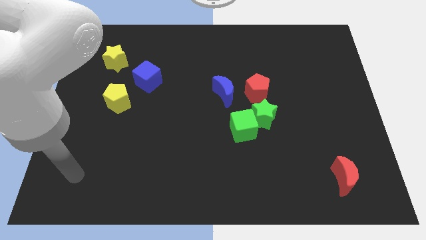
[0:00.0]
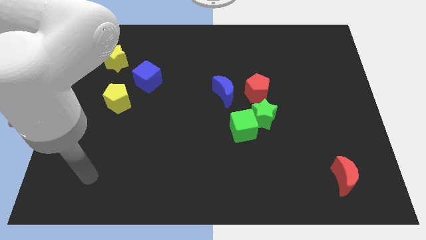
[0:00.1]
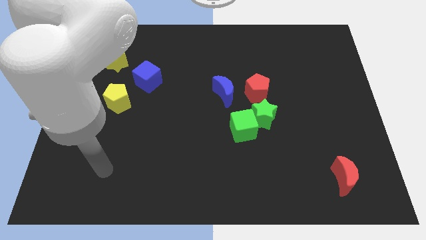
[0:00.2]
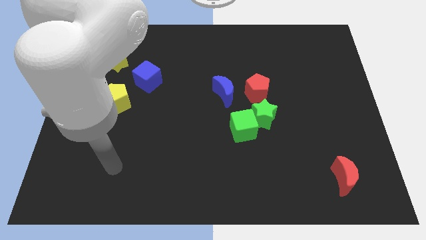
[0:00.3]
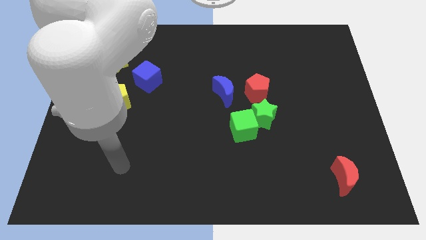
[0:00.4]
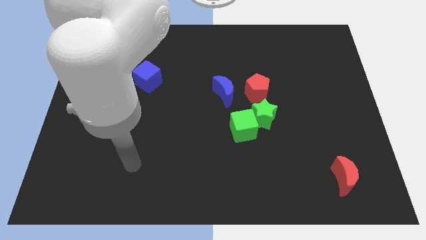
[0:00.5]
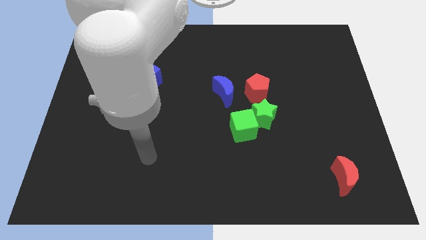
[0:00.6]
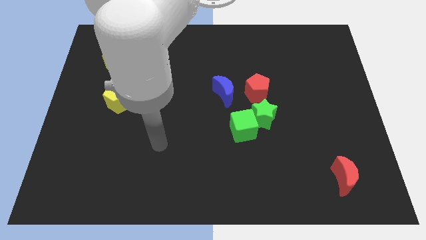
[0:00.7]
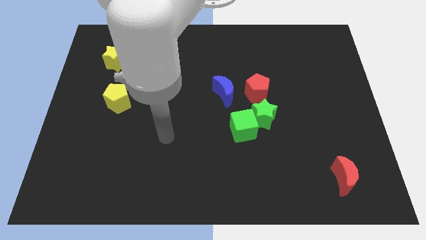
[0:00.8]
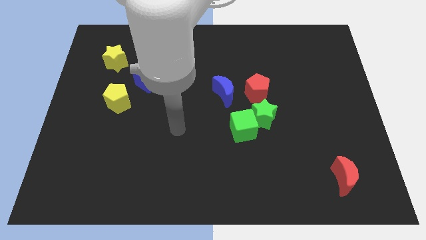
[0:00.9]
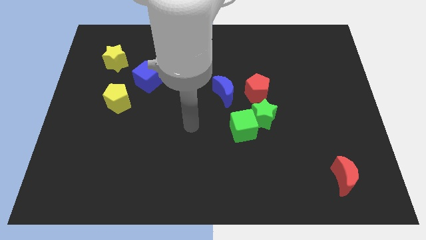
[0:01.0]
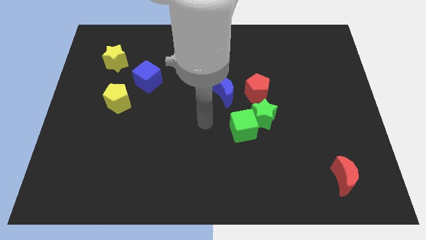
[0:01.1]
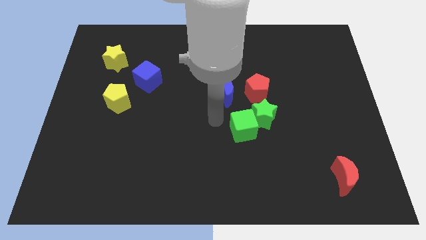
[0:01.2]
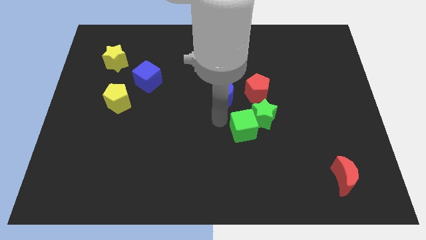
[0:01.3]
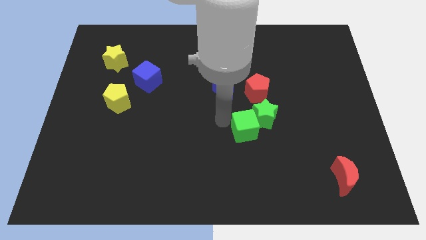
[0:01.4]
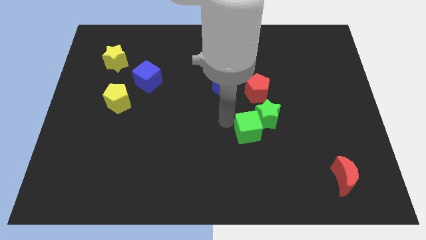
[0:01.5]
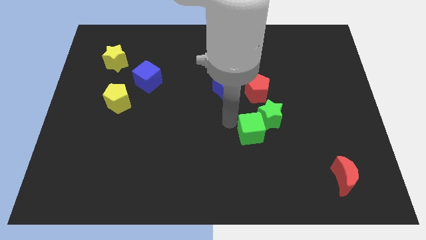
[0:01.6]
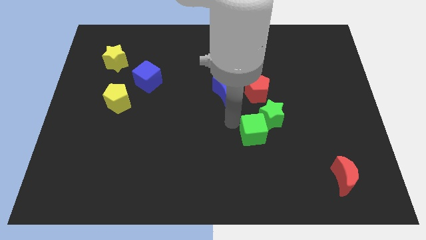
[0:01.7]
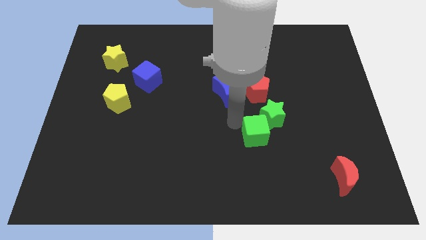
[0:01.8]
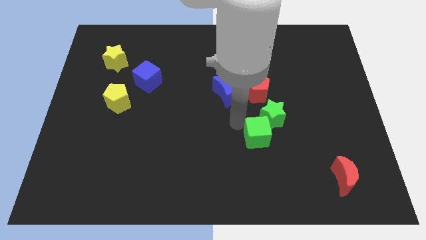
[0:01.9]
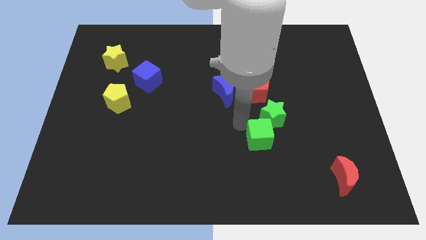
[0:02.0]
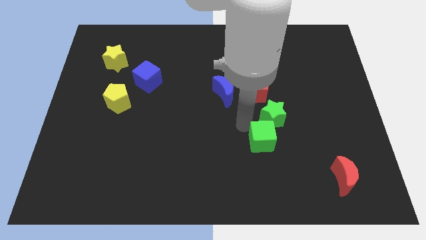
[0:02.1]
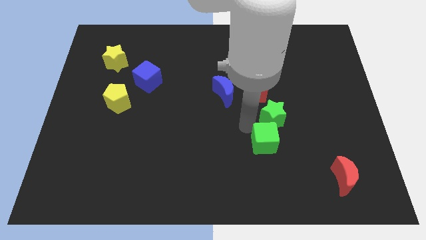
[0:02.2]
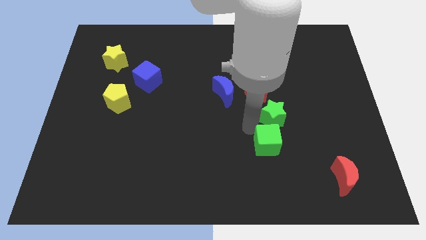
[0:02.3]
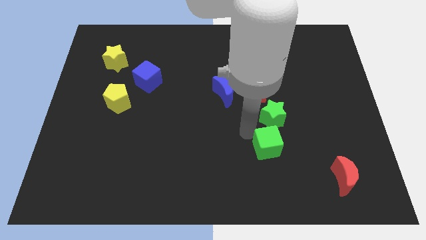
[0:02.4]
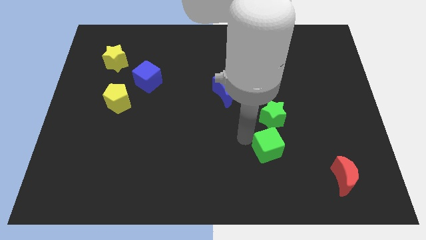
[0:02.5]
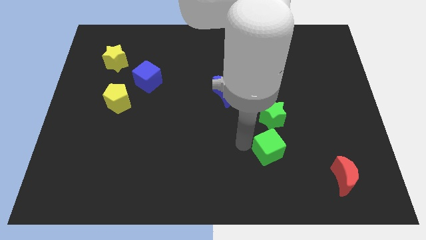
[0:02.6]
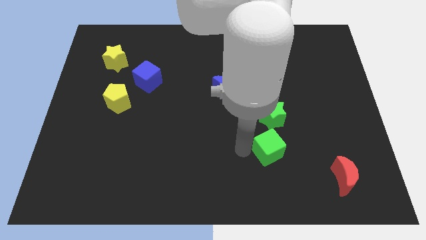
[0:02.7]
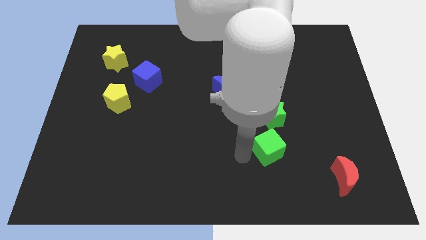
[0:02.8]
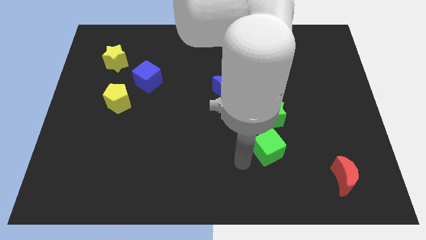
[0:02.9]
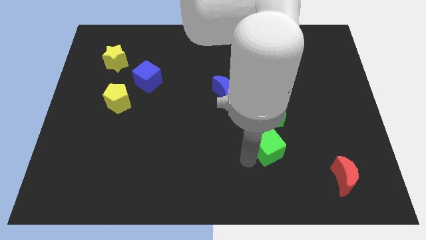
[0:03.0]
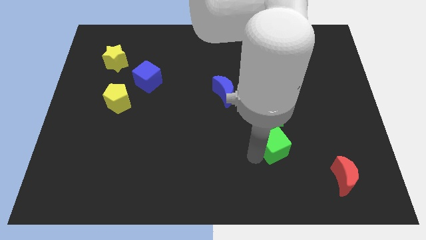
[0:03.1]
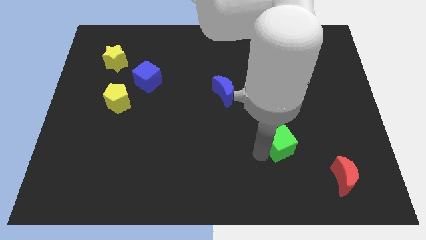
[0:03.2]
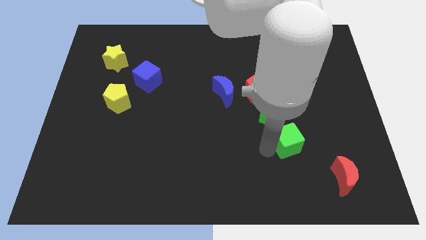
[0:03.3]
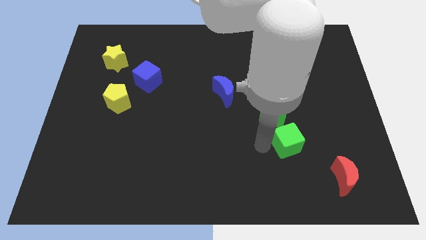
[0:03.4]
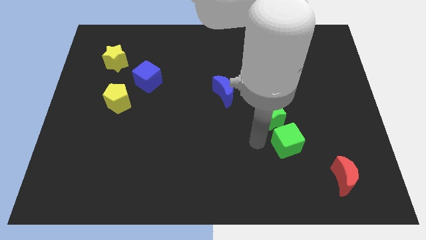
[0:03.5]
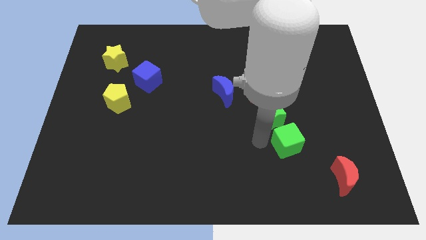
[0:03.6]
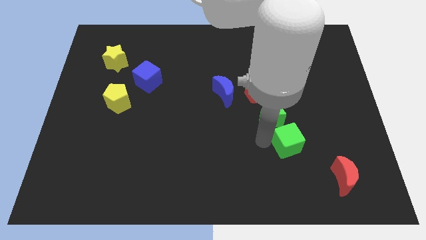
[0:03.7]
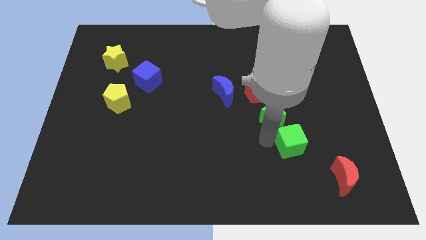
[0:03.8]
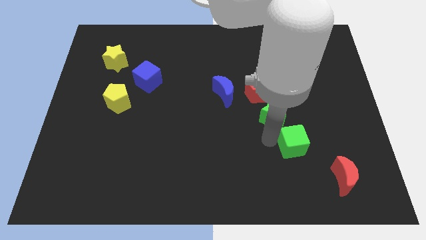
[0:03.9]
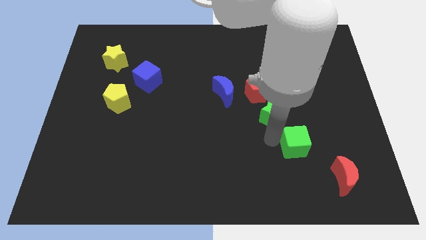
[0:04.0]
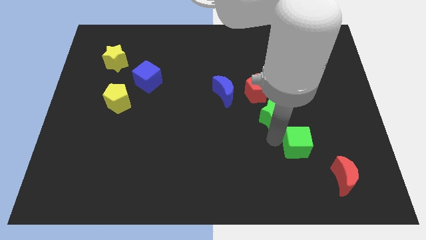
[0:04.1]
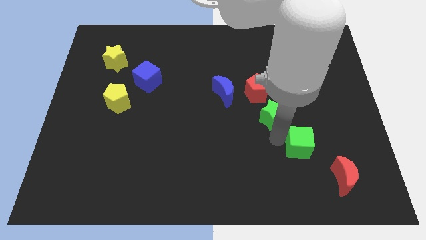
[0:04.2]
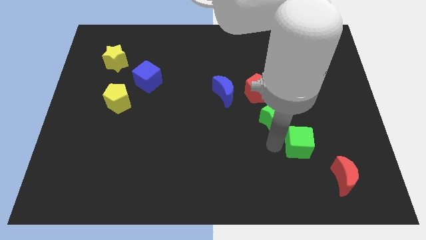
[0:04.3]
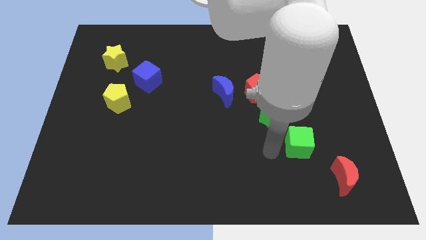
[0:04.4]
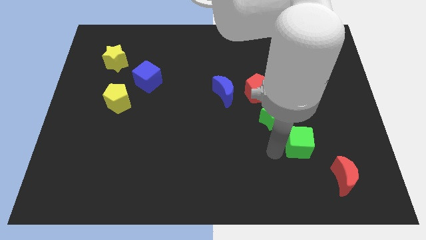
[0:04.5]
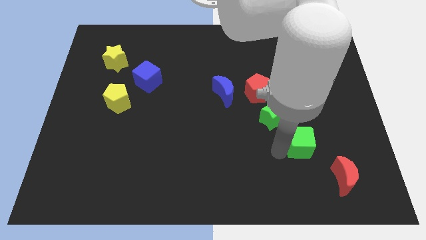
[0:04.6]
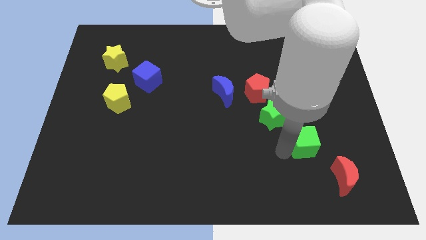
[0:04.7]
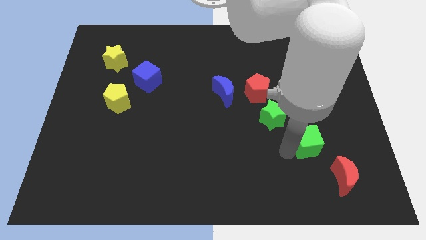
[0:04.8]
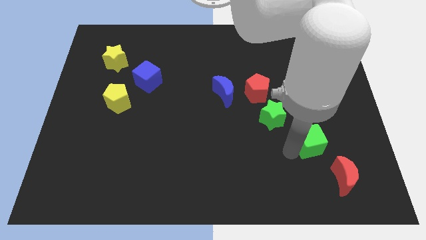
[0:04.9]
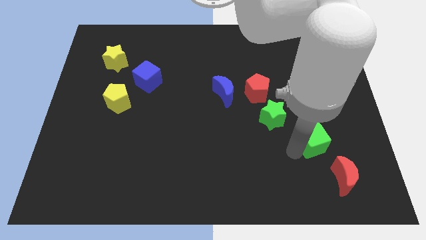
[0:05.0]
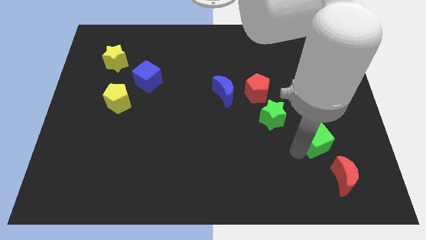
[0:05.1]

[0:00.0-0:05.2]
move the green cube to the top of the red moon

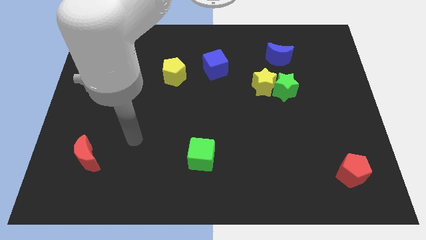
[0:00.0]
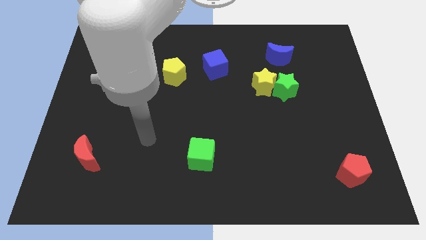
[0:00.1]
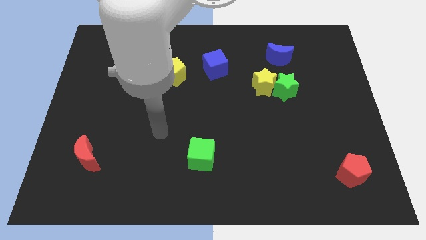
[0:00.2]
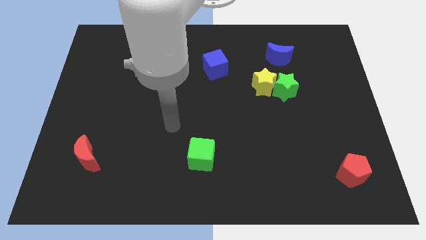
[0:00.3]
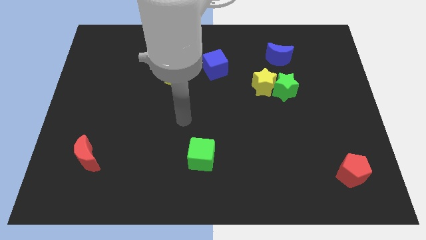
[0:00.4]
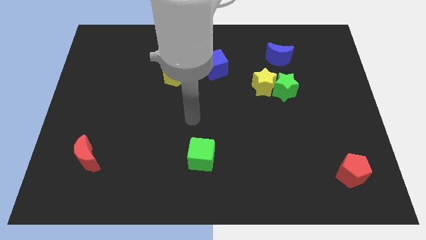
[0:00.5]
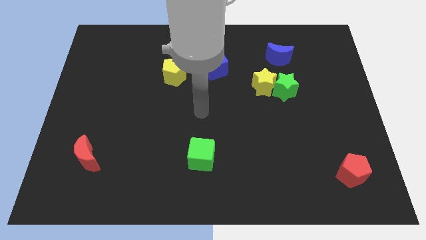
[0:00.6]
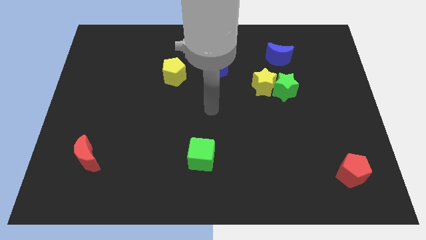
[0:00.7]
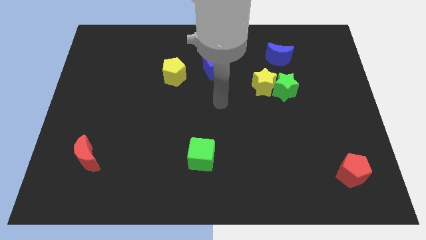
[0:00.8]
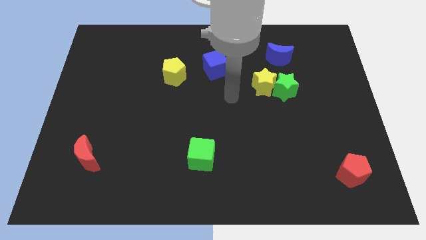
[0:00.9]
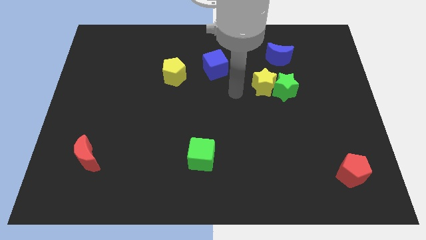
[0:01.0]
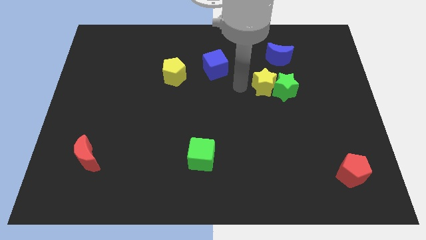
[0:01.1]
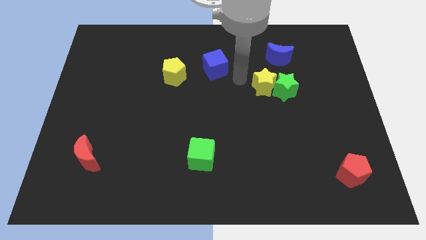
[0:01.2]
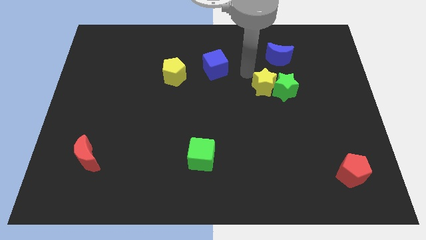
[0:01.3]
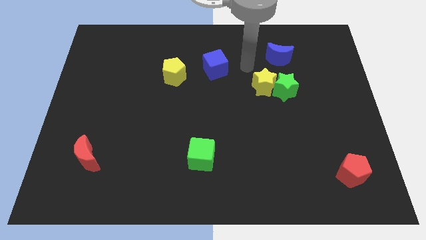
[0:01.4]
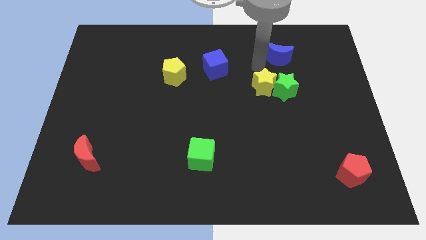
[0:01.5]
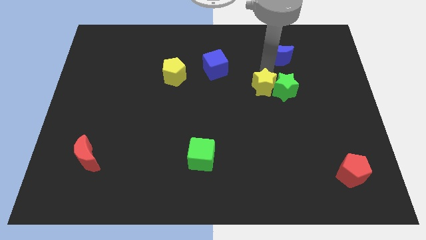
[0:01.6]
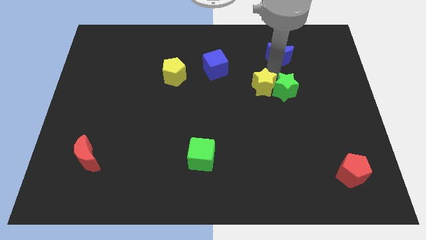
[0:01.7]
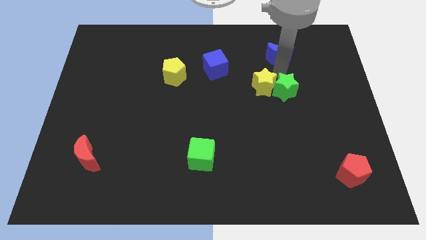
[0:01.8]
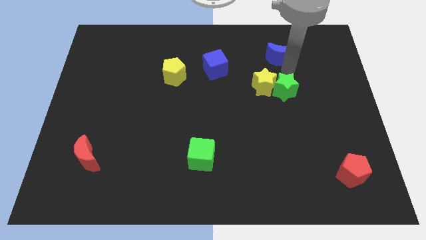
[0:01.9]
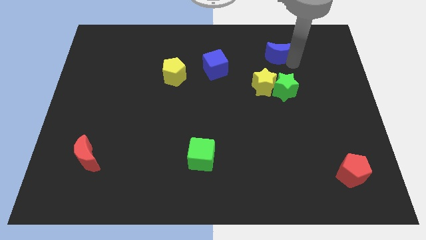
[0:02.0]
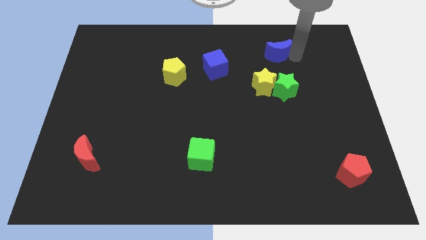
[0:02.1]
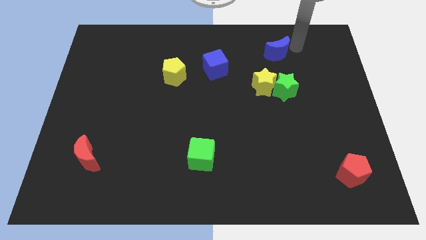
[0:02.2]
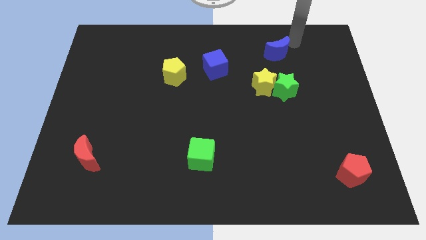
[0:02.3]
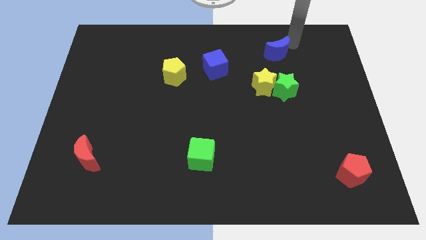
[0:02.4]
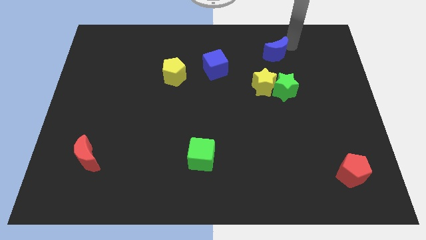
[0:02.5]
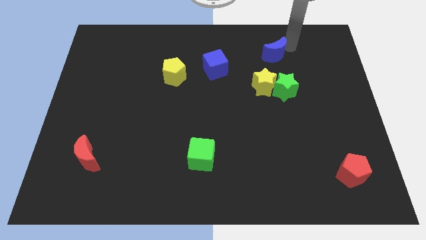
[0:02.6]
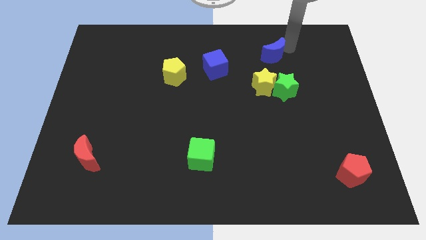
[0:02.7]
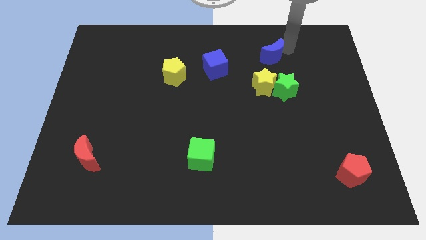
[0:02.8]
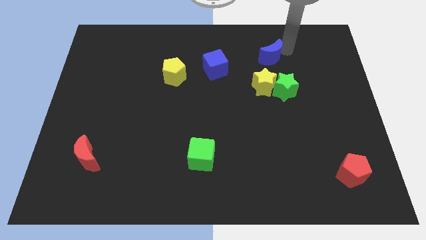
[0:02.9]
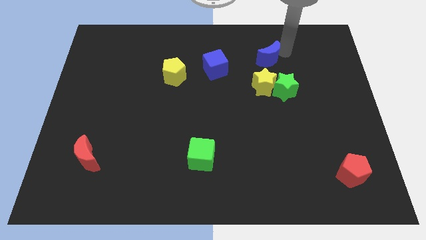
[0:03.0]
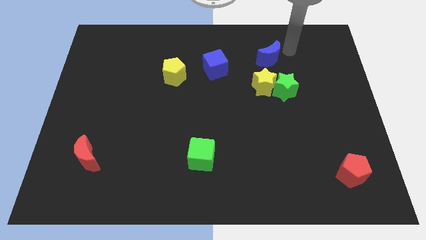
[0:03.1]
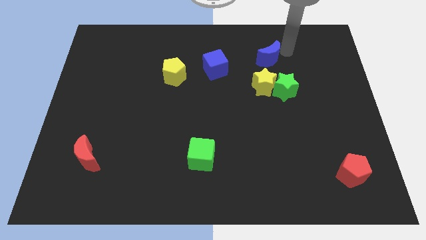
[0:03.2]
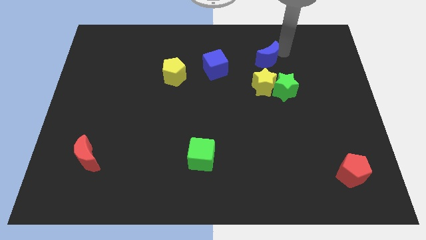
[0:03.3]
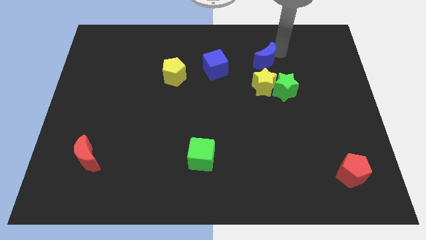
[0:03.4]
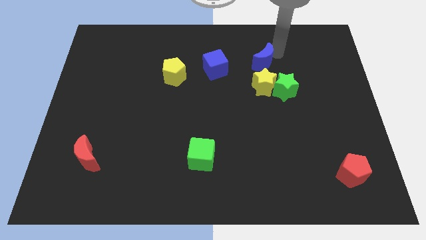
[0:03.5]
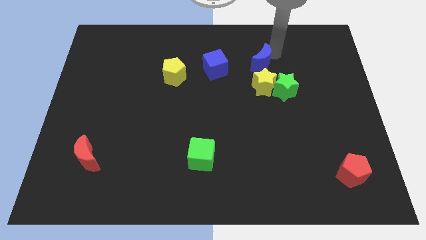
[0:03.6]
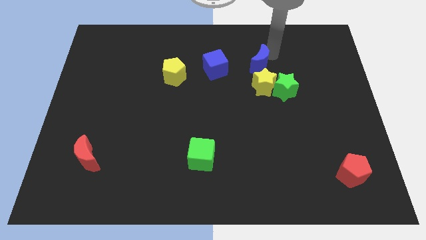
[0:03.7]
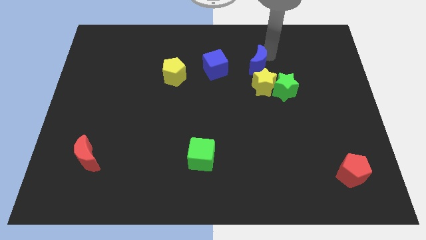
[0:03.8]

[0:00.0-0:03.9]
put the blue moon diagonally up and to the left of the yellow star
